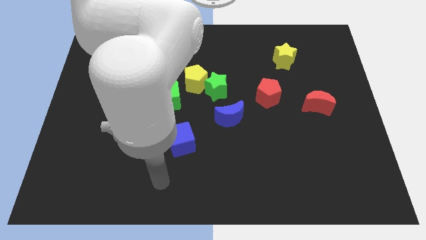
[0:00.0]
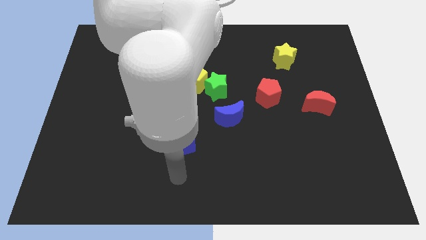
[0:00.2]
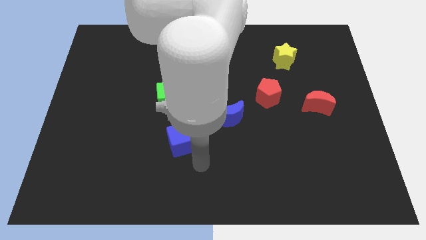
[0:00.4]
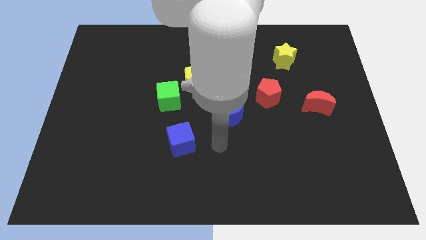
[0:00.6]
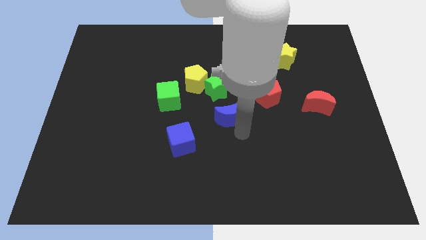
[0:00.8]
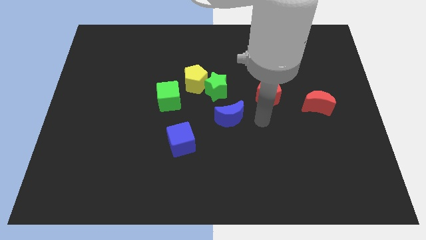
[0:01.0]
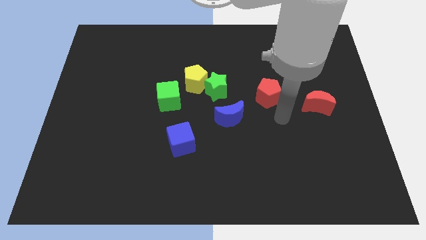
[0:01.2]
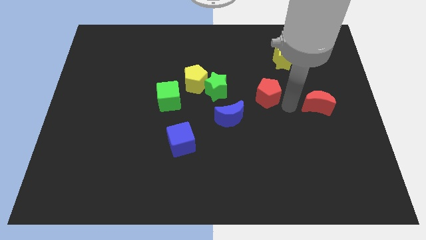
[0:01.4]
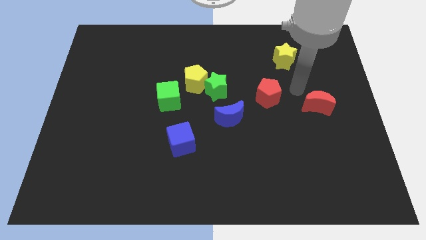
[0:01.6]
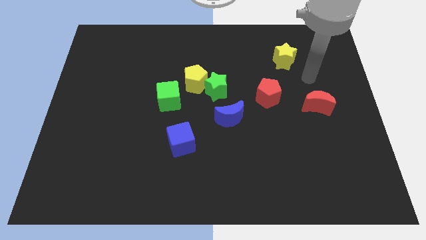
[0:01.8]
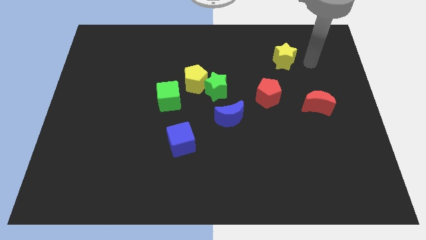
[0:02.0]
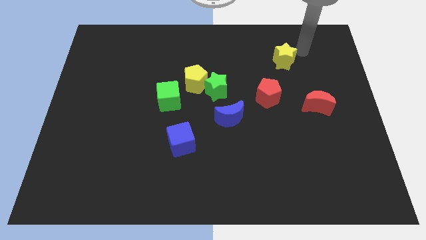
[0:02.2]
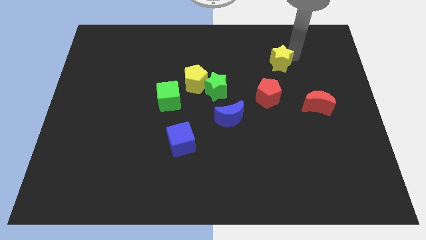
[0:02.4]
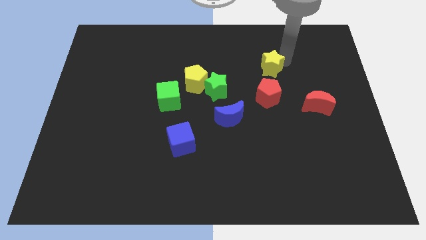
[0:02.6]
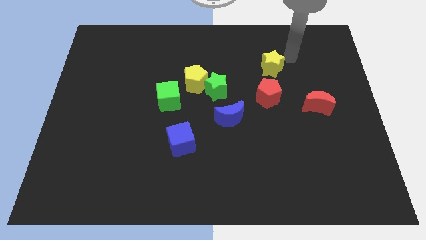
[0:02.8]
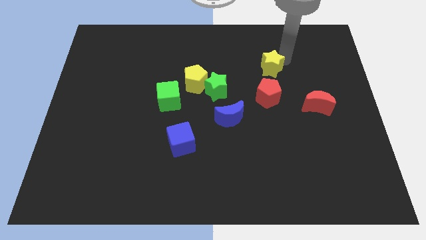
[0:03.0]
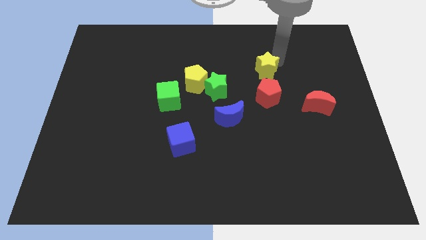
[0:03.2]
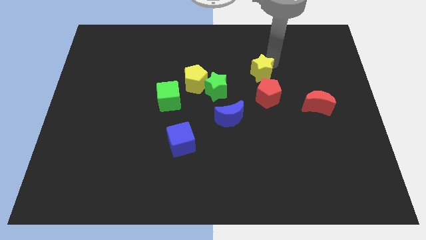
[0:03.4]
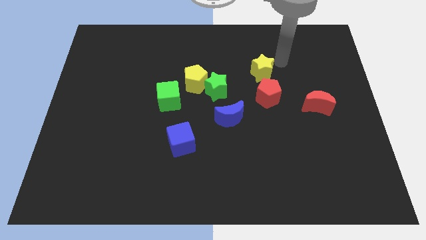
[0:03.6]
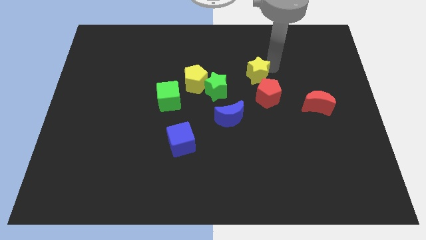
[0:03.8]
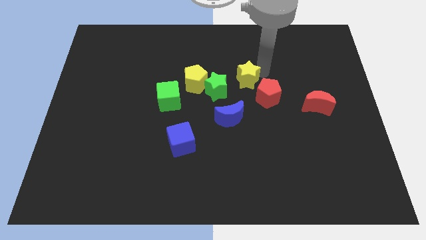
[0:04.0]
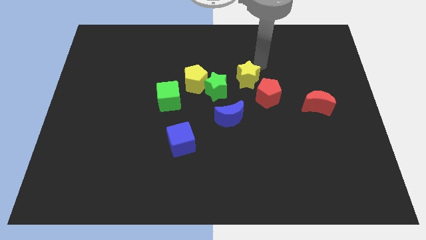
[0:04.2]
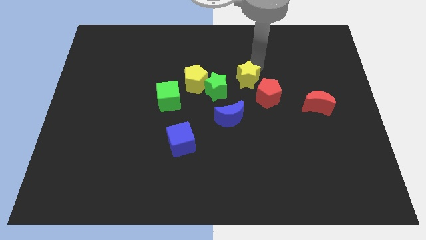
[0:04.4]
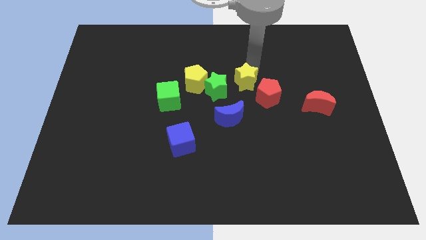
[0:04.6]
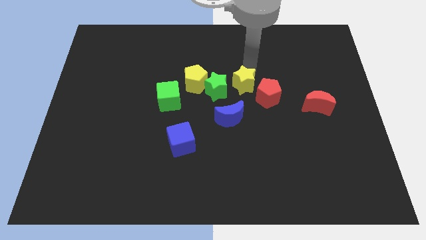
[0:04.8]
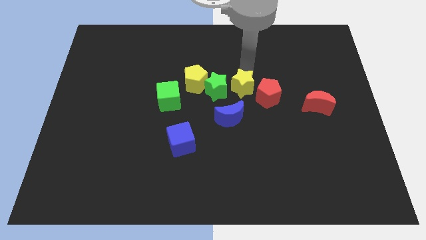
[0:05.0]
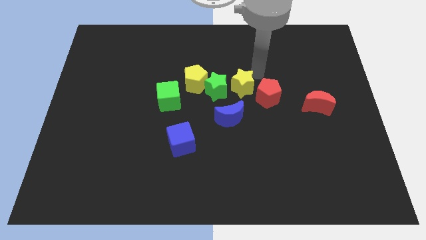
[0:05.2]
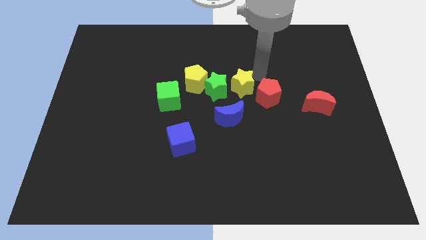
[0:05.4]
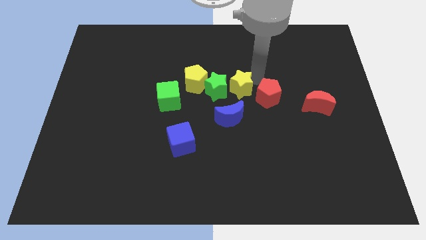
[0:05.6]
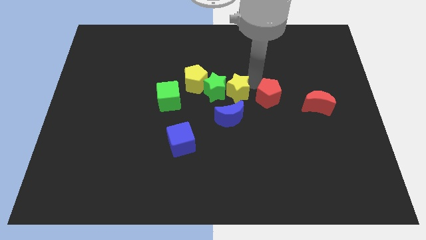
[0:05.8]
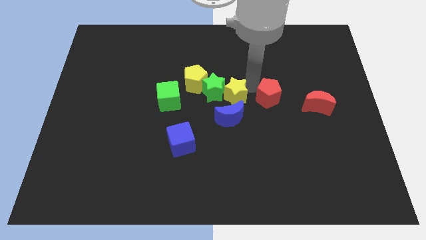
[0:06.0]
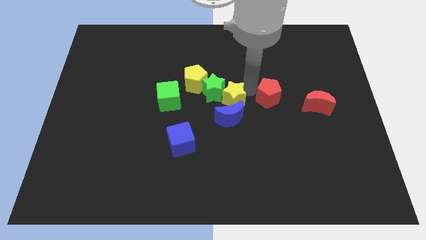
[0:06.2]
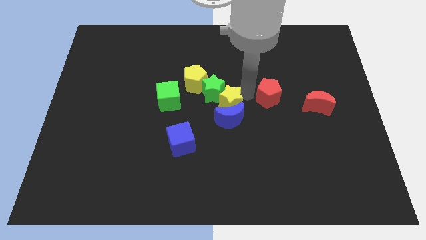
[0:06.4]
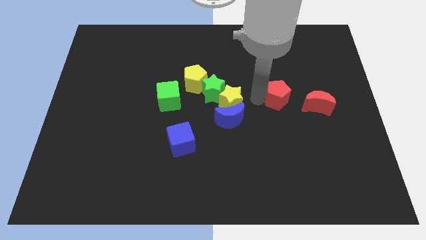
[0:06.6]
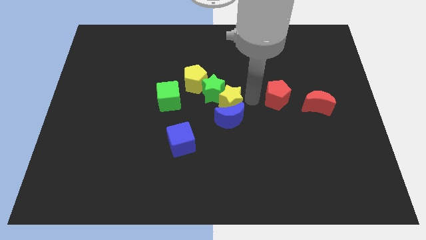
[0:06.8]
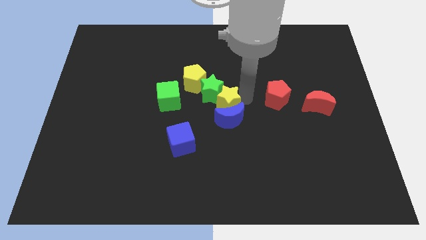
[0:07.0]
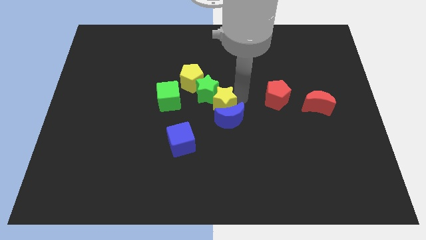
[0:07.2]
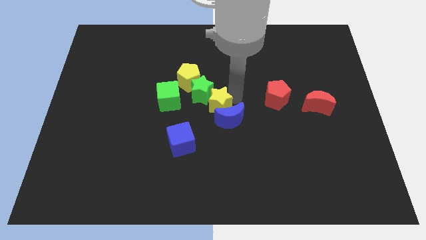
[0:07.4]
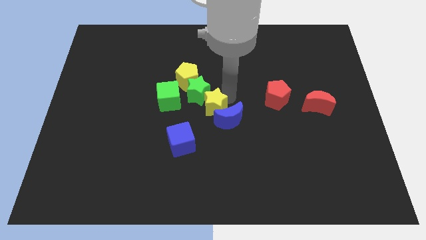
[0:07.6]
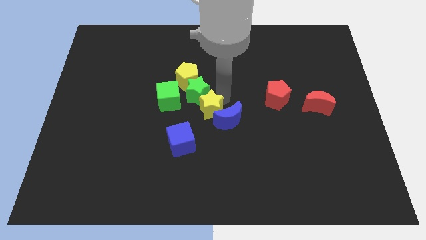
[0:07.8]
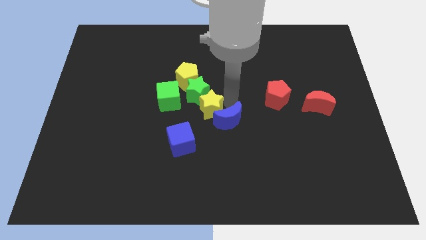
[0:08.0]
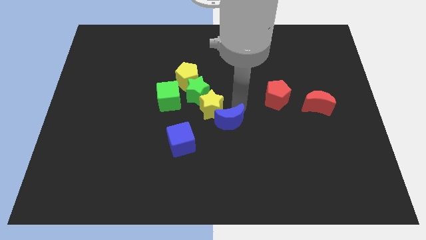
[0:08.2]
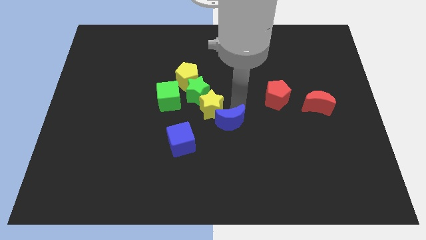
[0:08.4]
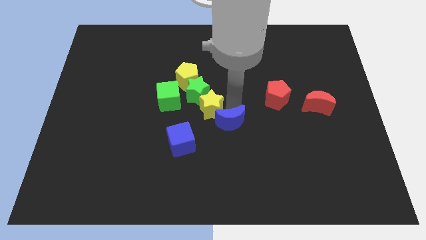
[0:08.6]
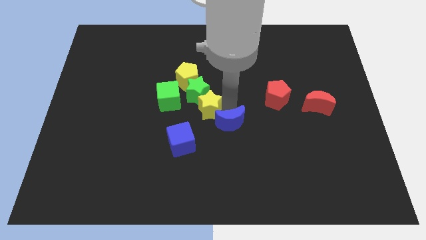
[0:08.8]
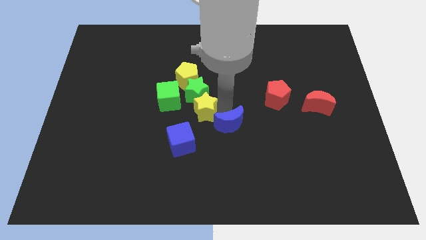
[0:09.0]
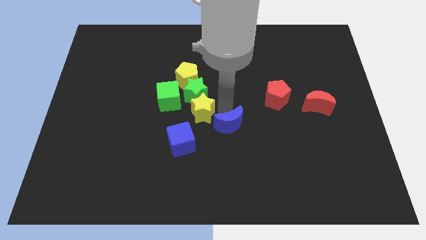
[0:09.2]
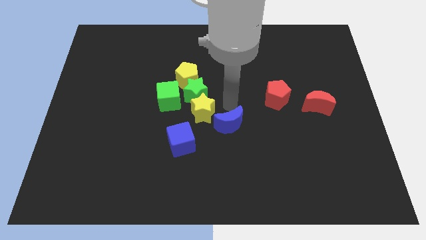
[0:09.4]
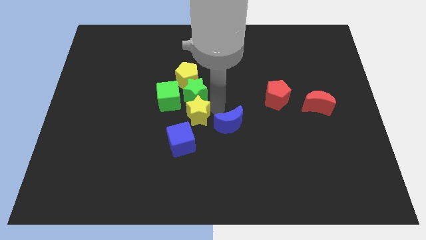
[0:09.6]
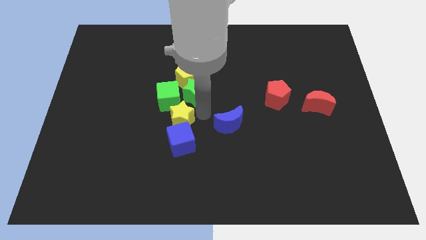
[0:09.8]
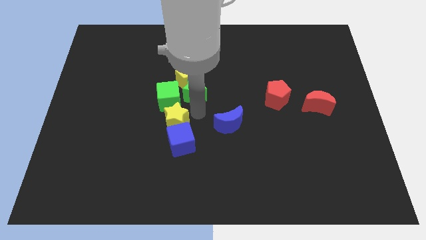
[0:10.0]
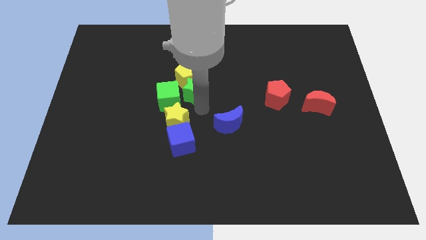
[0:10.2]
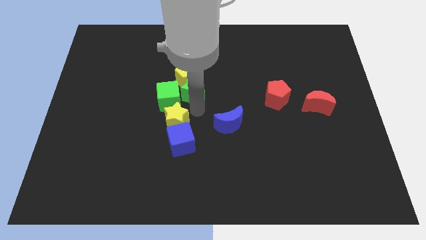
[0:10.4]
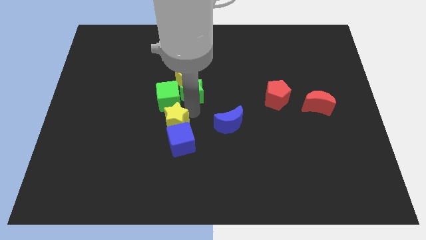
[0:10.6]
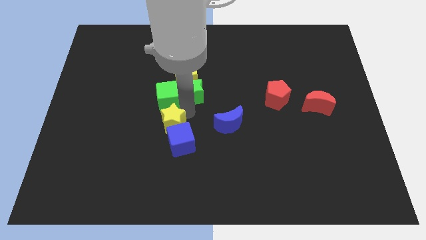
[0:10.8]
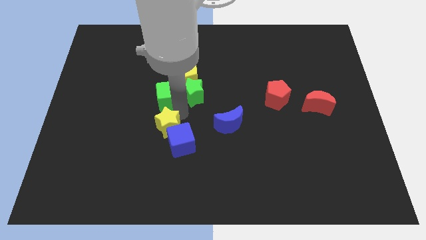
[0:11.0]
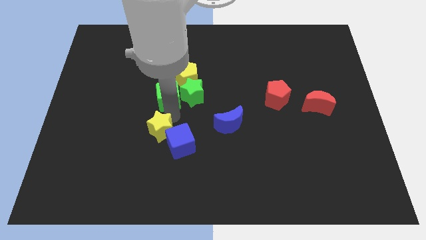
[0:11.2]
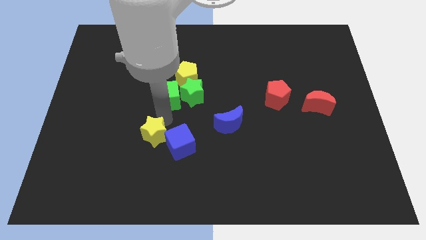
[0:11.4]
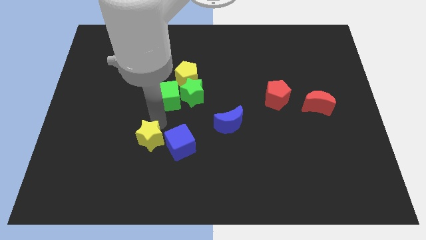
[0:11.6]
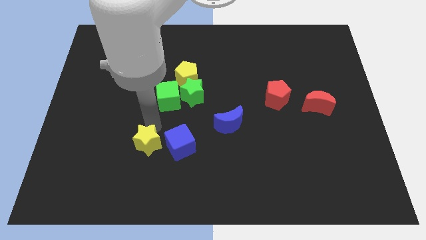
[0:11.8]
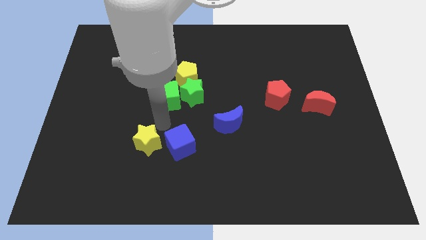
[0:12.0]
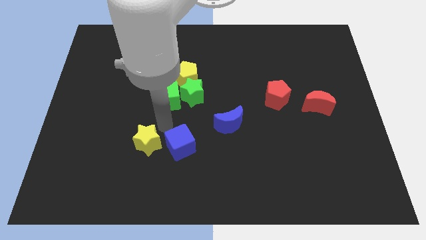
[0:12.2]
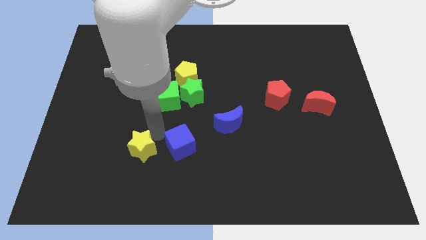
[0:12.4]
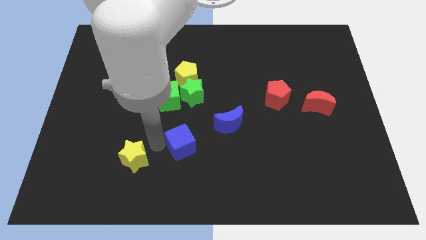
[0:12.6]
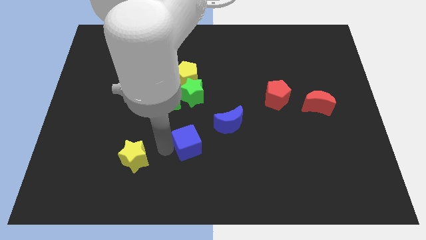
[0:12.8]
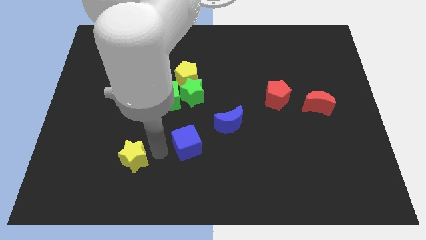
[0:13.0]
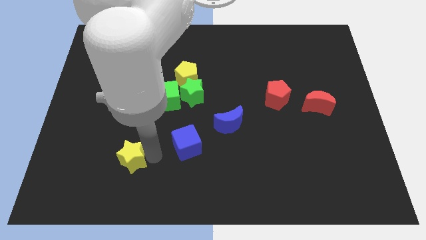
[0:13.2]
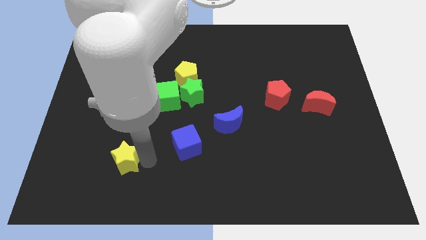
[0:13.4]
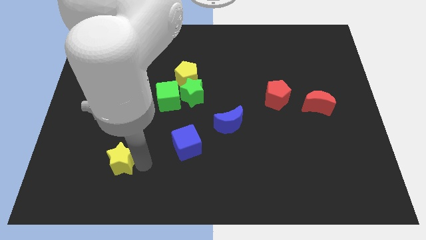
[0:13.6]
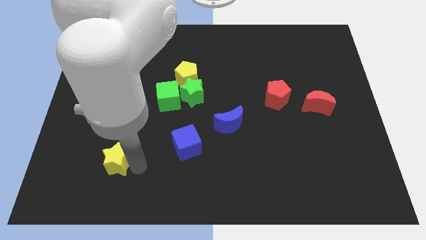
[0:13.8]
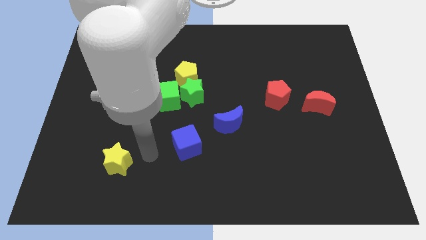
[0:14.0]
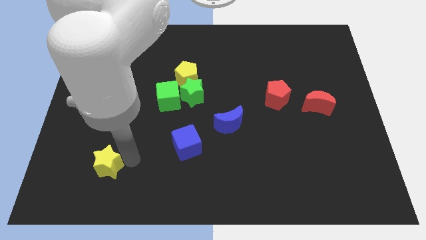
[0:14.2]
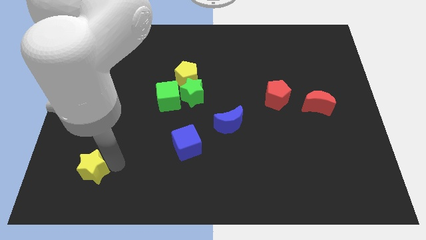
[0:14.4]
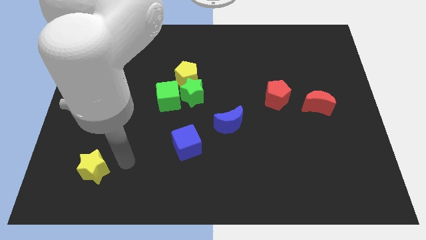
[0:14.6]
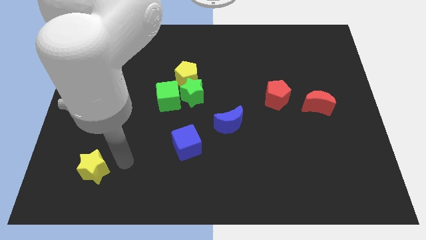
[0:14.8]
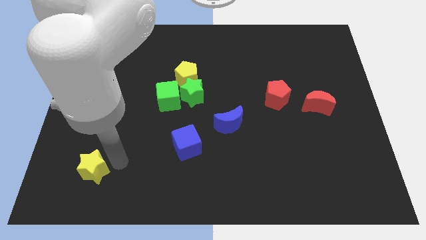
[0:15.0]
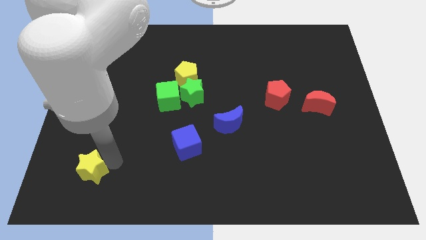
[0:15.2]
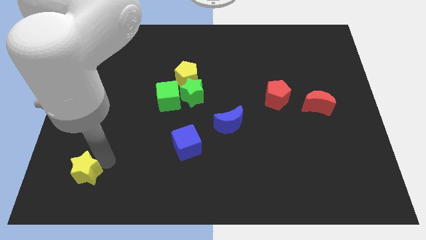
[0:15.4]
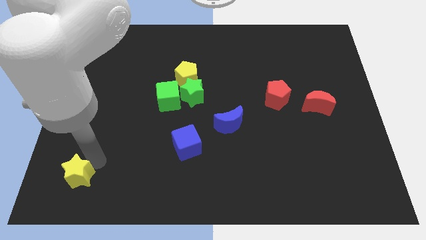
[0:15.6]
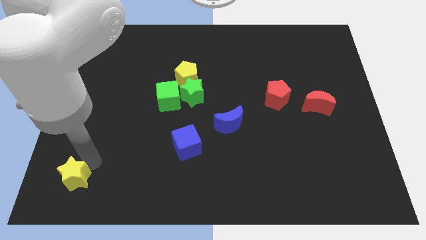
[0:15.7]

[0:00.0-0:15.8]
slide the yellow star to the bottom left
